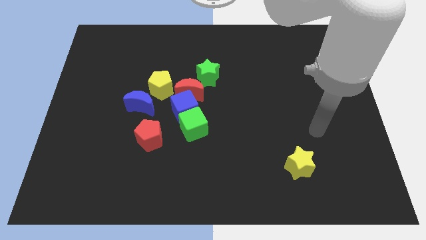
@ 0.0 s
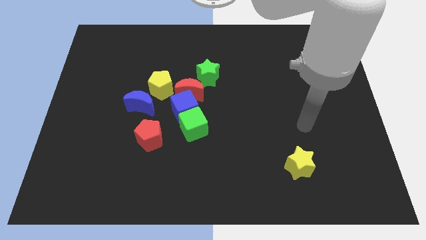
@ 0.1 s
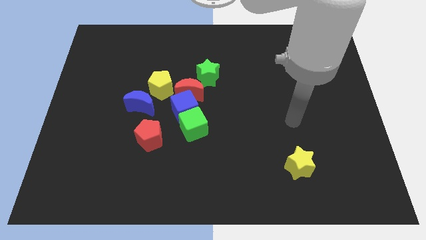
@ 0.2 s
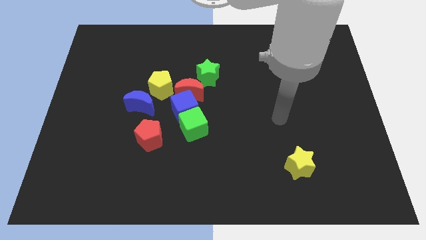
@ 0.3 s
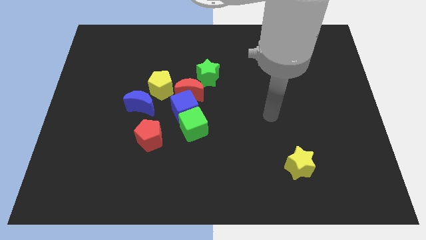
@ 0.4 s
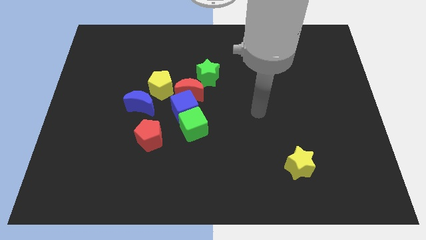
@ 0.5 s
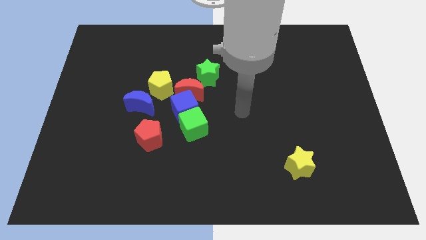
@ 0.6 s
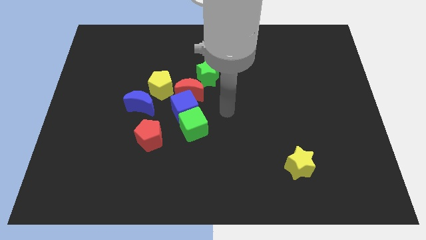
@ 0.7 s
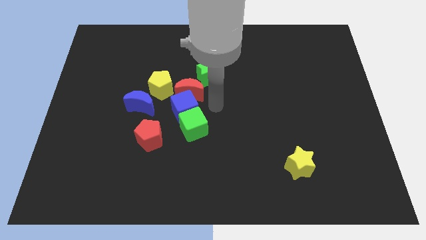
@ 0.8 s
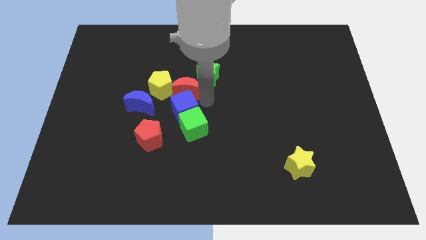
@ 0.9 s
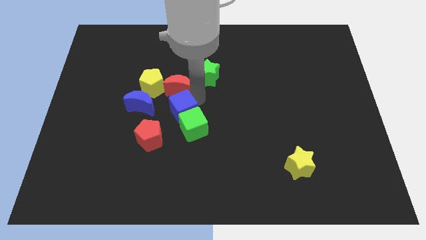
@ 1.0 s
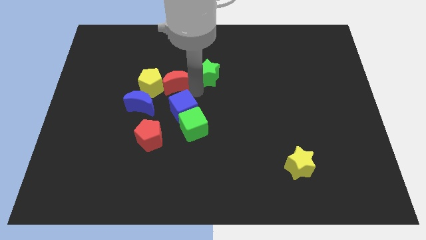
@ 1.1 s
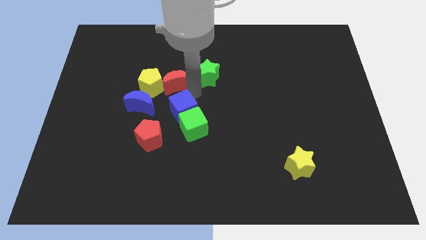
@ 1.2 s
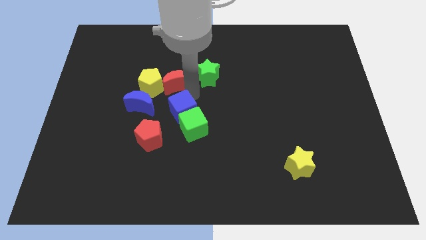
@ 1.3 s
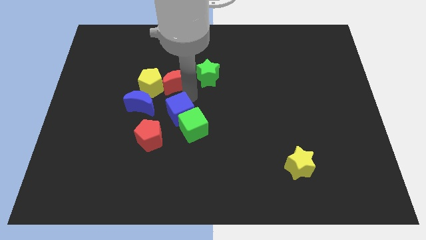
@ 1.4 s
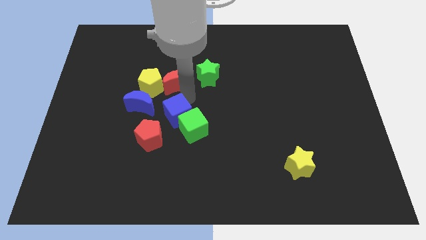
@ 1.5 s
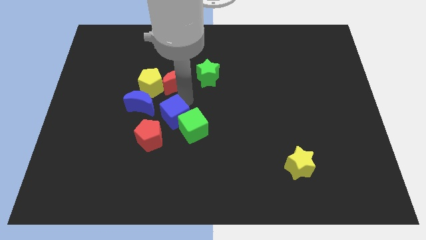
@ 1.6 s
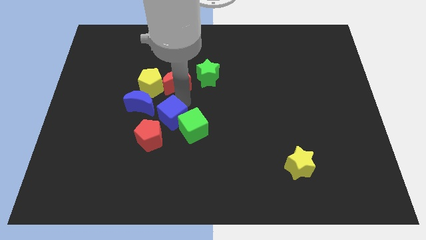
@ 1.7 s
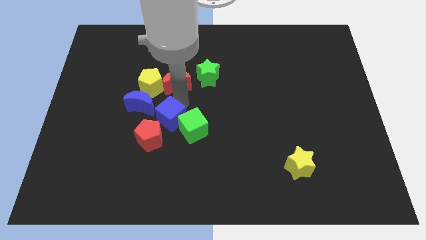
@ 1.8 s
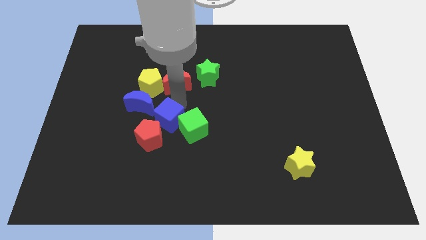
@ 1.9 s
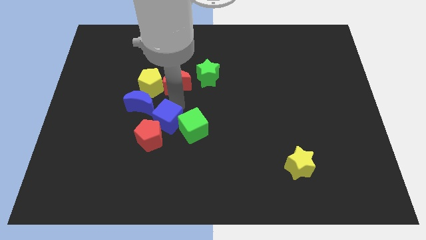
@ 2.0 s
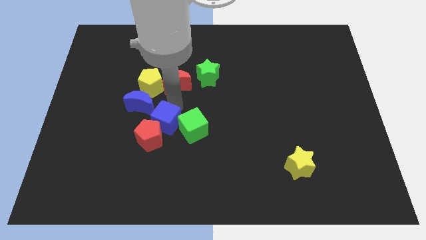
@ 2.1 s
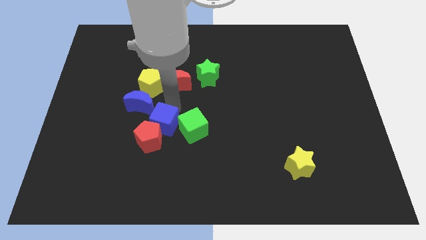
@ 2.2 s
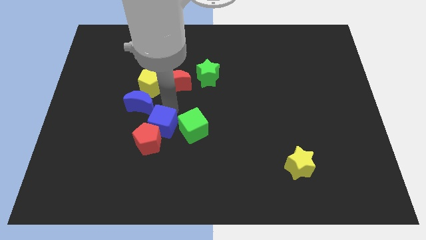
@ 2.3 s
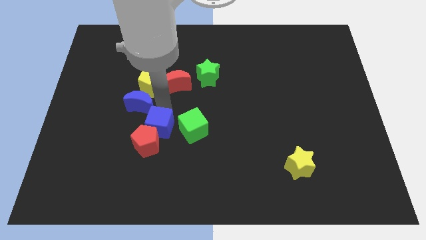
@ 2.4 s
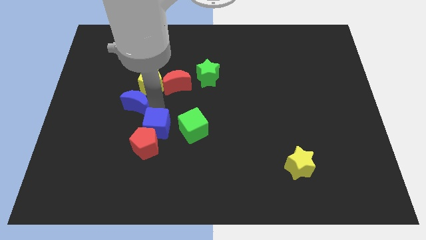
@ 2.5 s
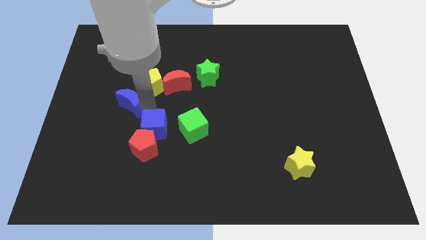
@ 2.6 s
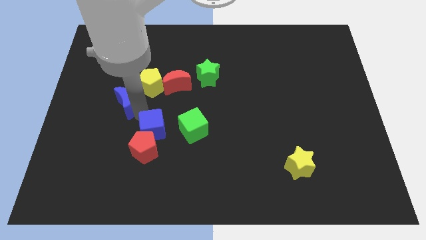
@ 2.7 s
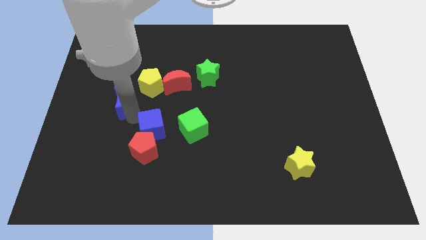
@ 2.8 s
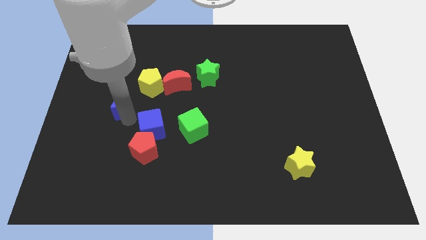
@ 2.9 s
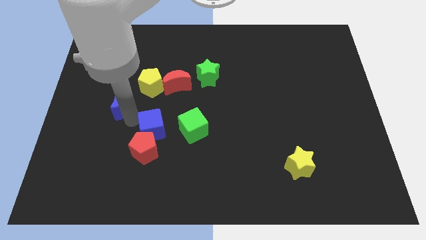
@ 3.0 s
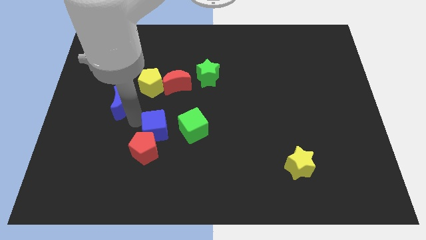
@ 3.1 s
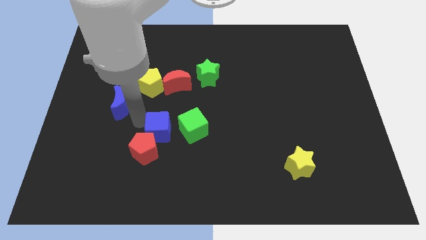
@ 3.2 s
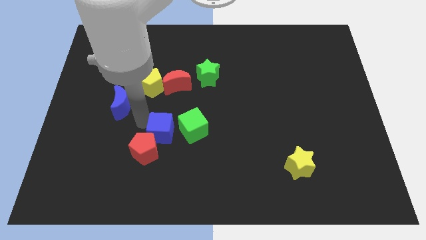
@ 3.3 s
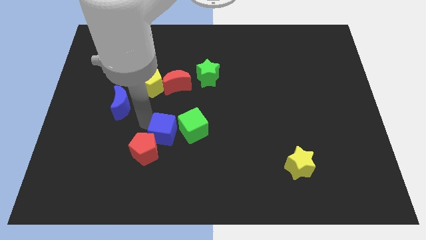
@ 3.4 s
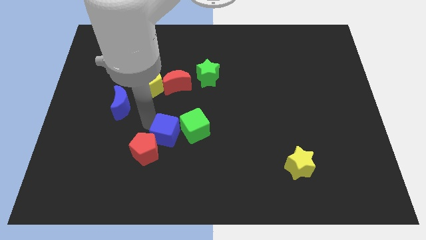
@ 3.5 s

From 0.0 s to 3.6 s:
move the blue cube away from the clump

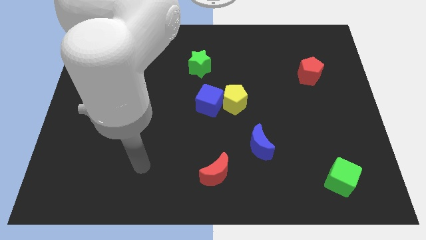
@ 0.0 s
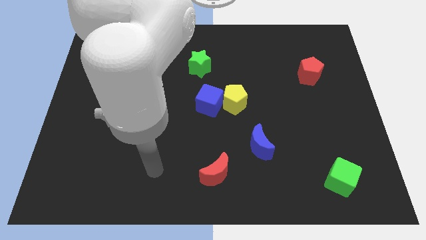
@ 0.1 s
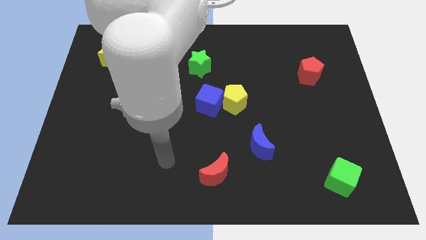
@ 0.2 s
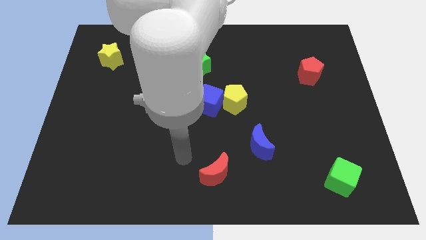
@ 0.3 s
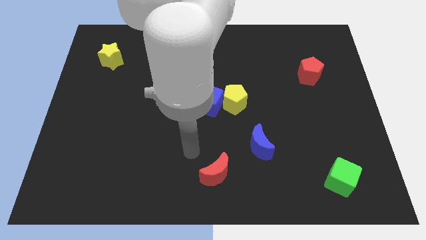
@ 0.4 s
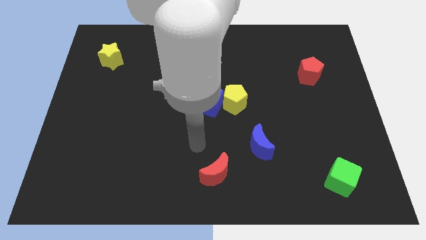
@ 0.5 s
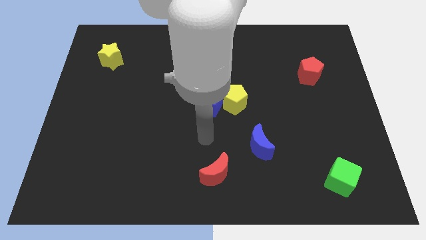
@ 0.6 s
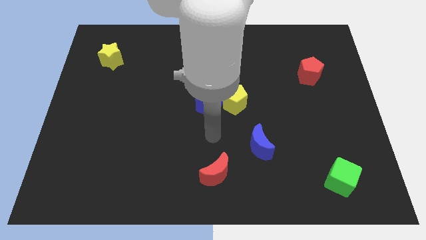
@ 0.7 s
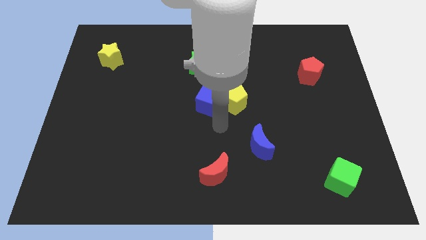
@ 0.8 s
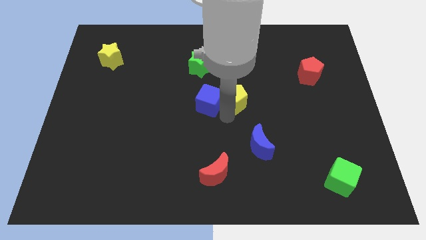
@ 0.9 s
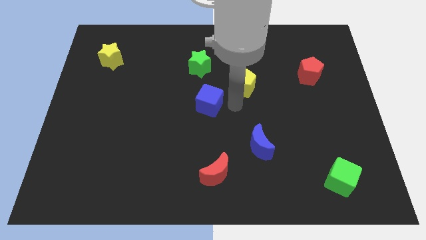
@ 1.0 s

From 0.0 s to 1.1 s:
separate the blue cube from the yellow pentagon

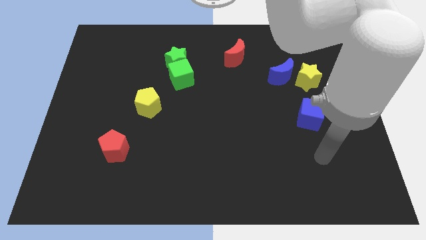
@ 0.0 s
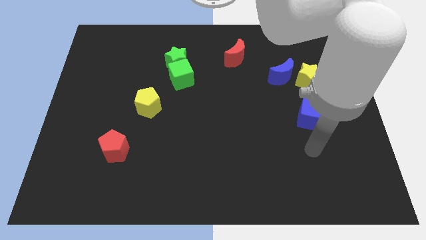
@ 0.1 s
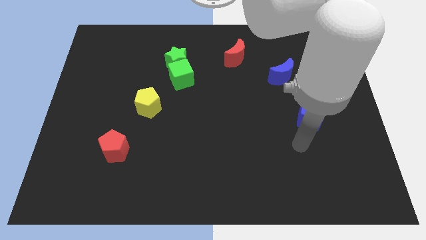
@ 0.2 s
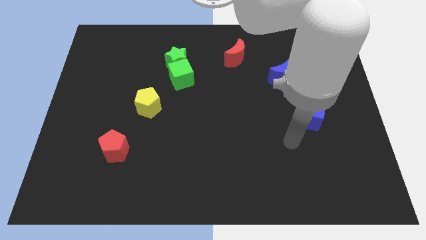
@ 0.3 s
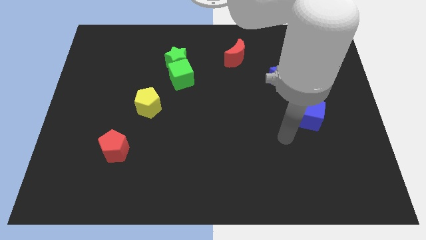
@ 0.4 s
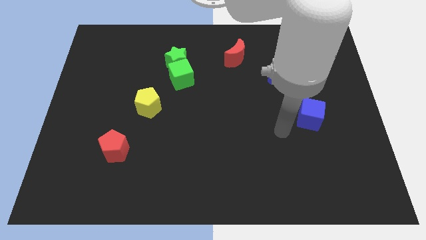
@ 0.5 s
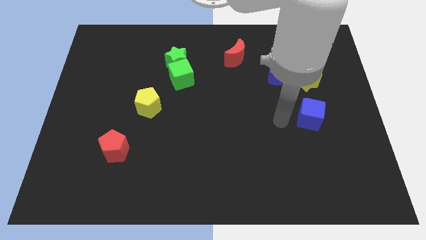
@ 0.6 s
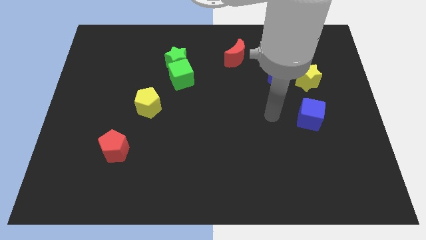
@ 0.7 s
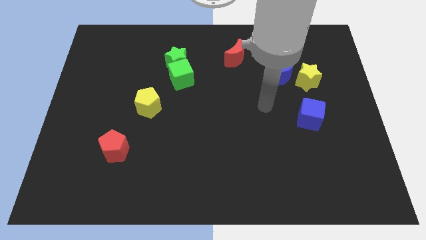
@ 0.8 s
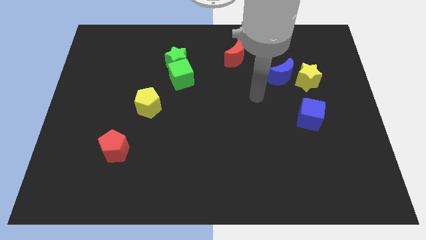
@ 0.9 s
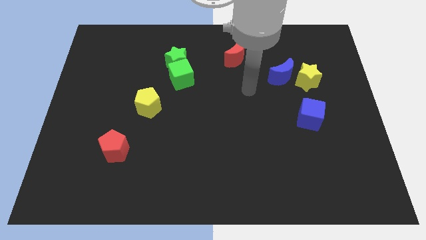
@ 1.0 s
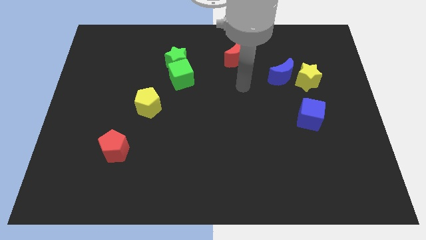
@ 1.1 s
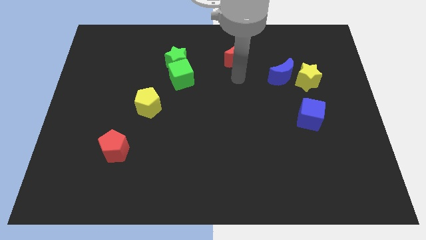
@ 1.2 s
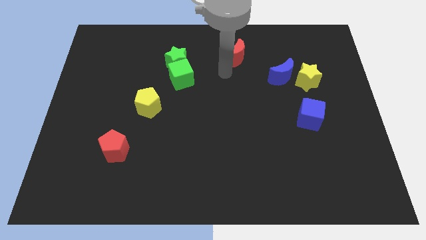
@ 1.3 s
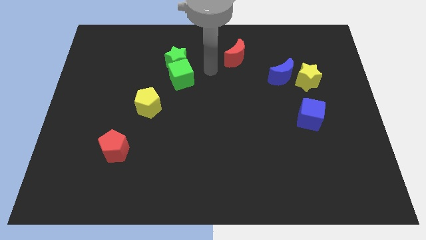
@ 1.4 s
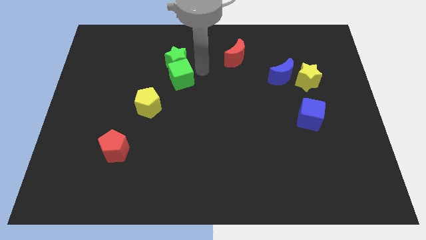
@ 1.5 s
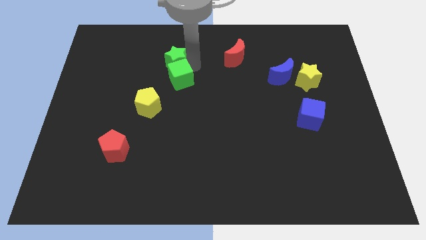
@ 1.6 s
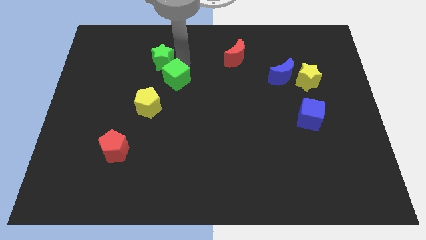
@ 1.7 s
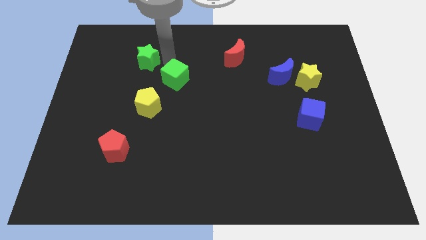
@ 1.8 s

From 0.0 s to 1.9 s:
pull the green cube apart from the green star

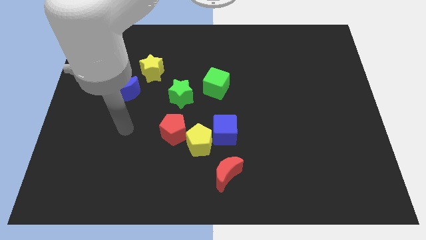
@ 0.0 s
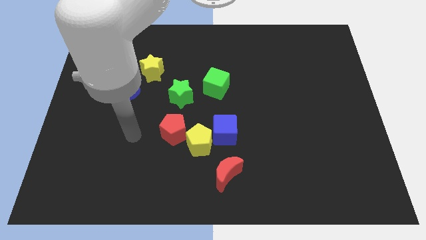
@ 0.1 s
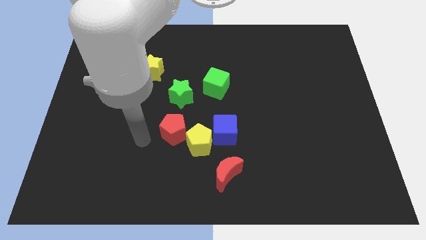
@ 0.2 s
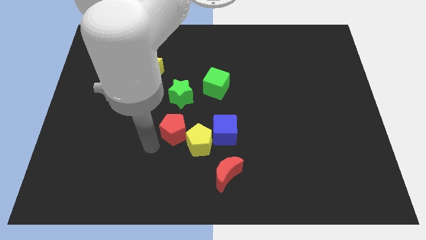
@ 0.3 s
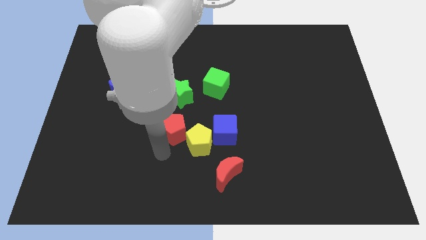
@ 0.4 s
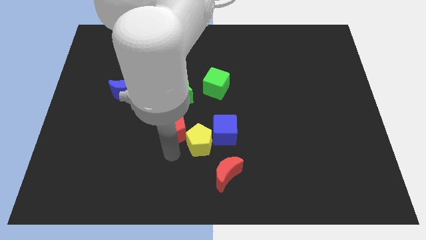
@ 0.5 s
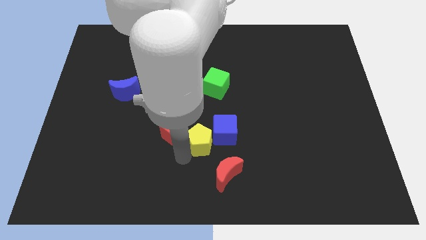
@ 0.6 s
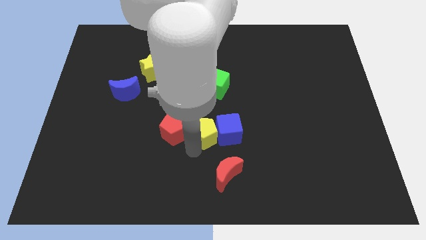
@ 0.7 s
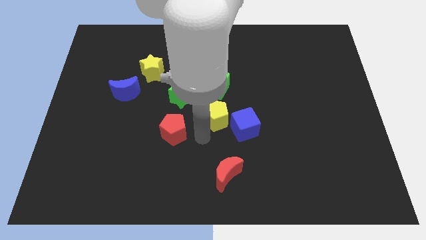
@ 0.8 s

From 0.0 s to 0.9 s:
move the red pentagon away from the yellow pentagon

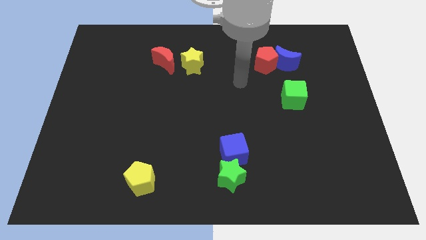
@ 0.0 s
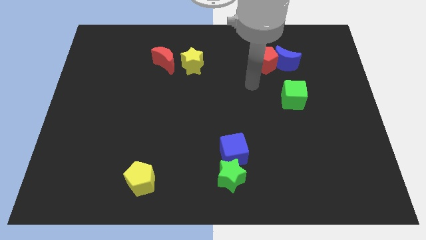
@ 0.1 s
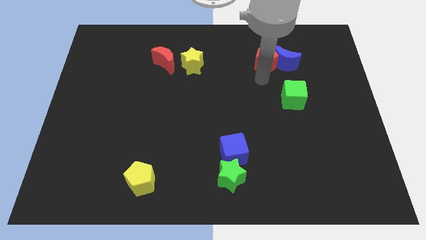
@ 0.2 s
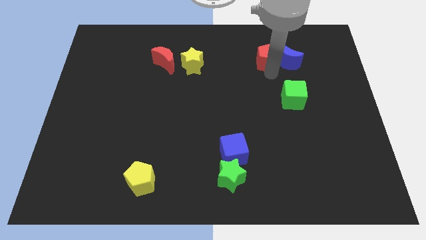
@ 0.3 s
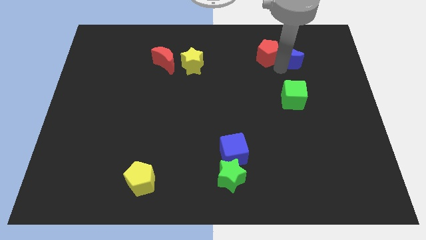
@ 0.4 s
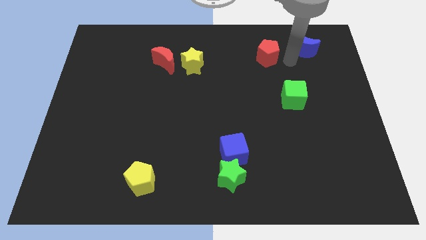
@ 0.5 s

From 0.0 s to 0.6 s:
pull the red pentagon apart from the blue moon

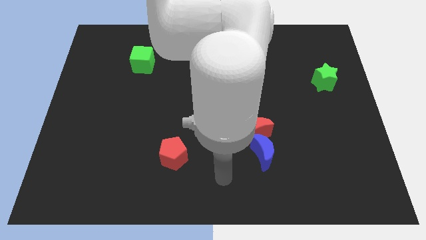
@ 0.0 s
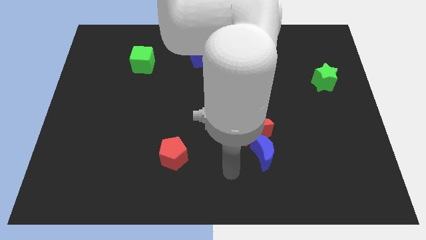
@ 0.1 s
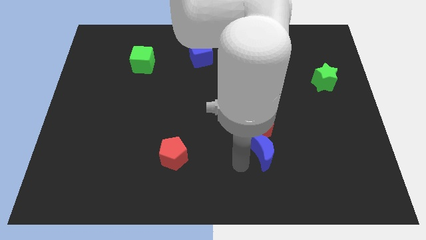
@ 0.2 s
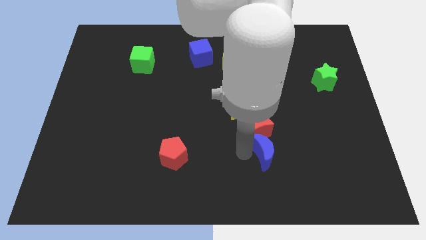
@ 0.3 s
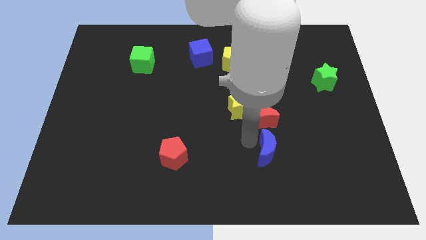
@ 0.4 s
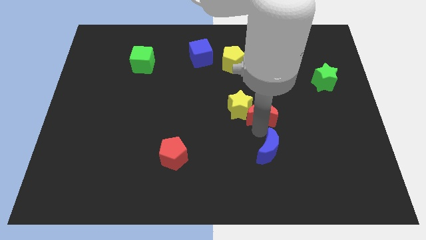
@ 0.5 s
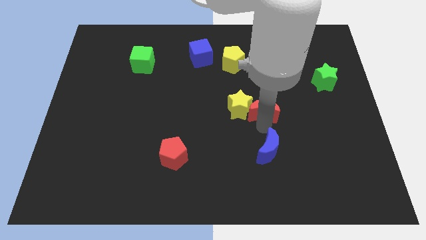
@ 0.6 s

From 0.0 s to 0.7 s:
separate the blue moon from the red moon

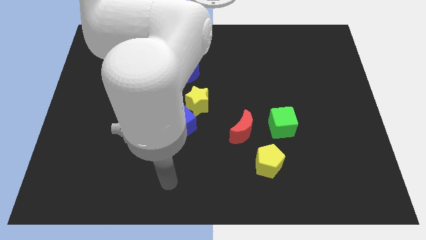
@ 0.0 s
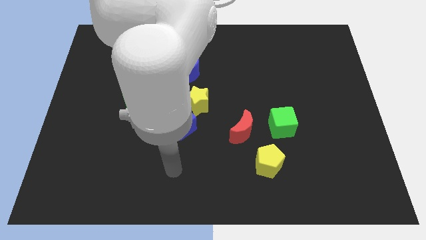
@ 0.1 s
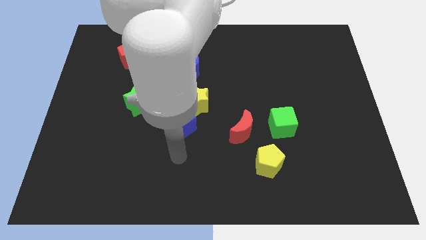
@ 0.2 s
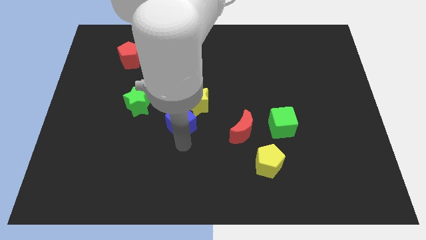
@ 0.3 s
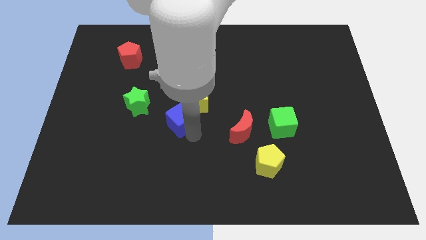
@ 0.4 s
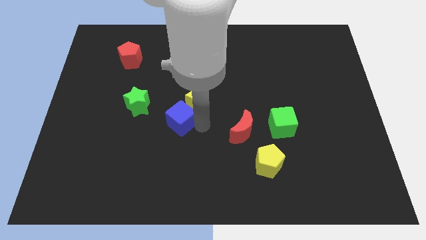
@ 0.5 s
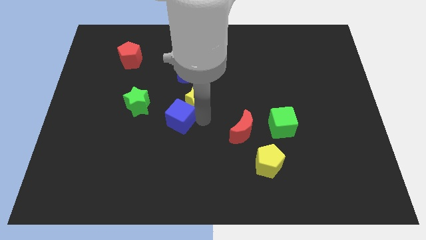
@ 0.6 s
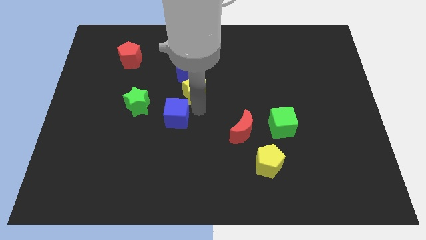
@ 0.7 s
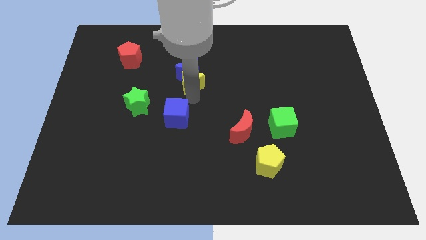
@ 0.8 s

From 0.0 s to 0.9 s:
separate the blue cube from the yellow star
